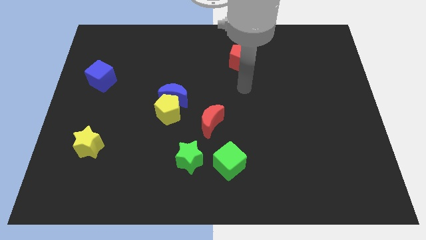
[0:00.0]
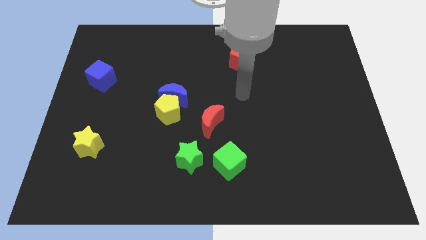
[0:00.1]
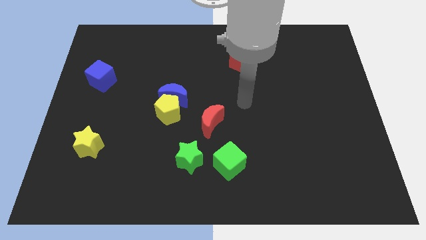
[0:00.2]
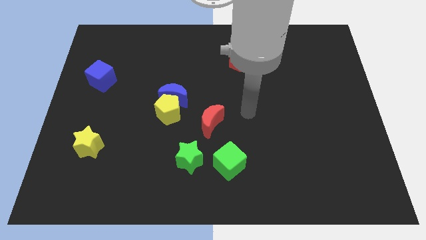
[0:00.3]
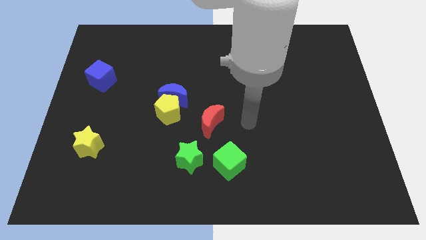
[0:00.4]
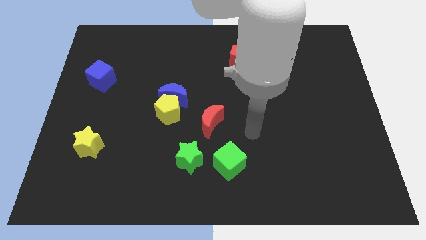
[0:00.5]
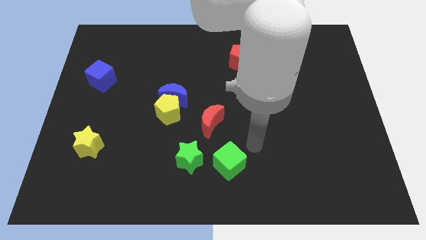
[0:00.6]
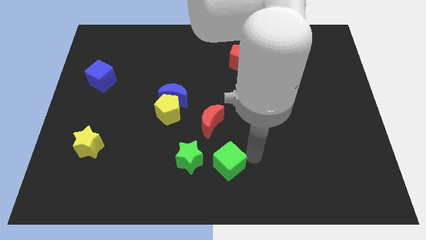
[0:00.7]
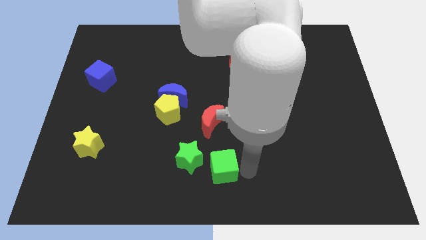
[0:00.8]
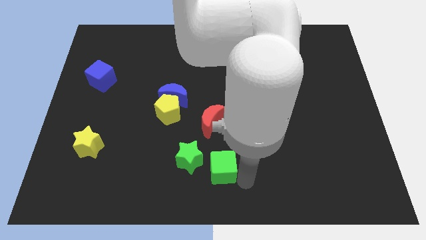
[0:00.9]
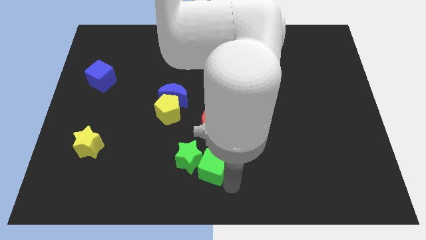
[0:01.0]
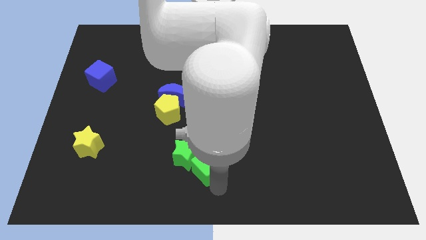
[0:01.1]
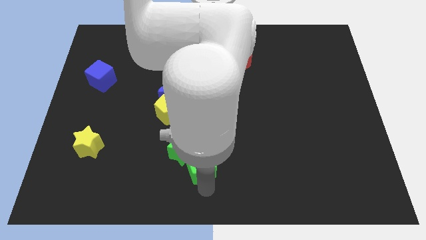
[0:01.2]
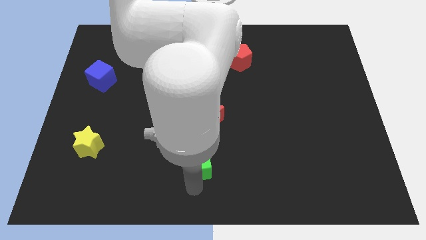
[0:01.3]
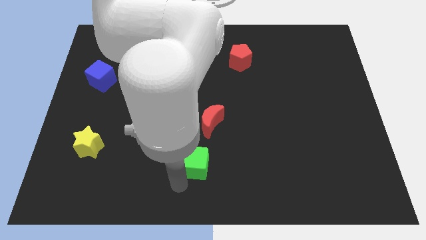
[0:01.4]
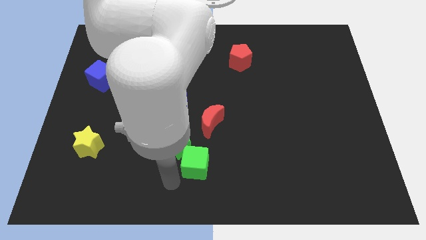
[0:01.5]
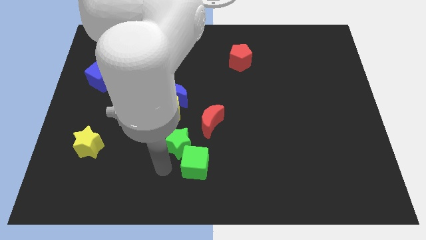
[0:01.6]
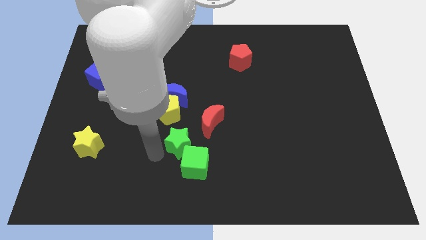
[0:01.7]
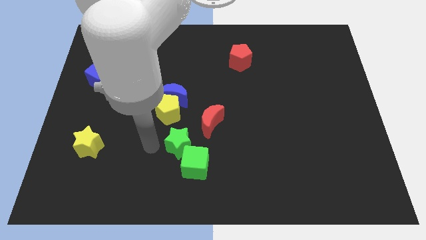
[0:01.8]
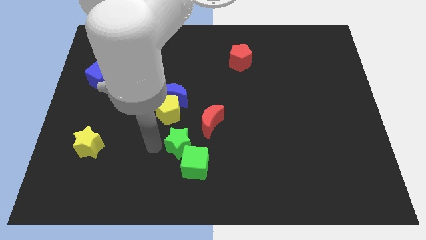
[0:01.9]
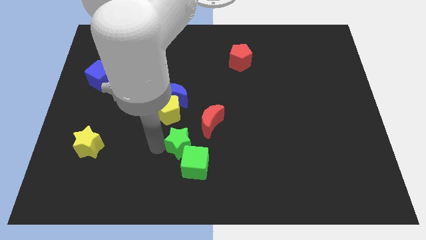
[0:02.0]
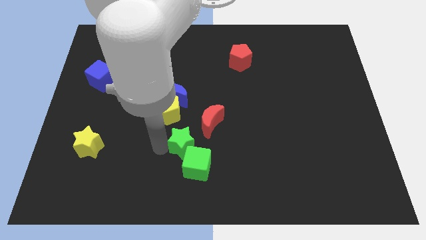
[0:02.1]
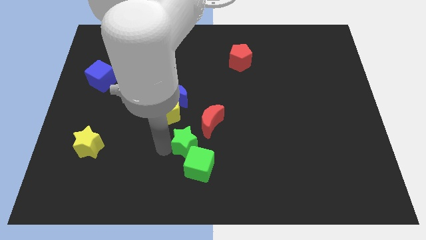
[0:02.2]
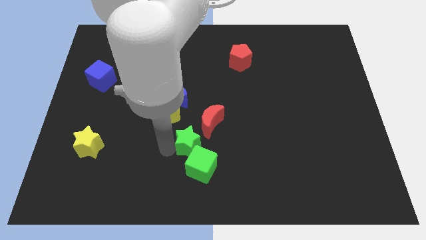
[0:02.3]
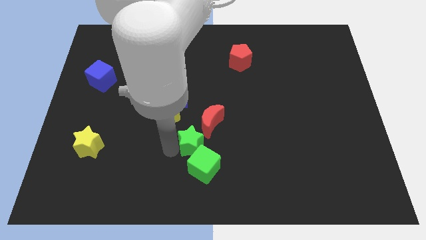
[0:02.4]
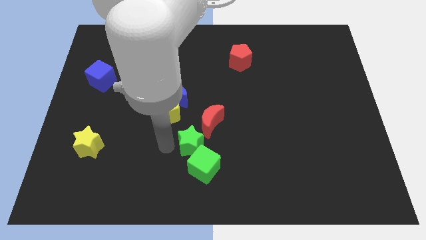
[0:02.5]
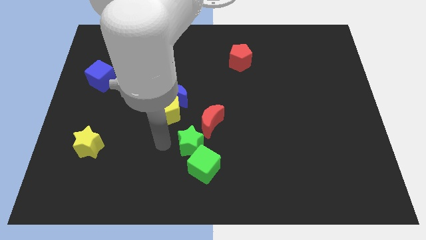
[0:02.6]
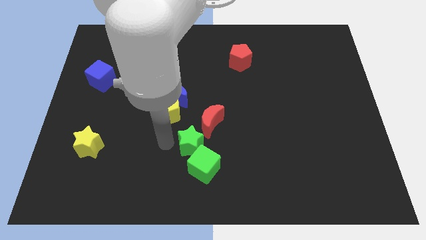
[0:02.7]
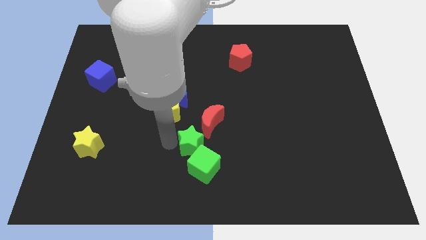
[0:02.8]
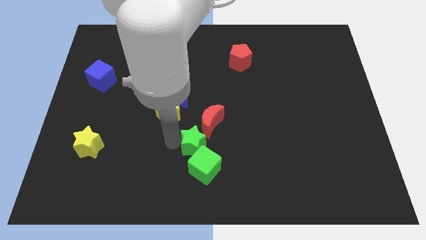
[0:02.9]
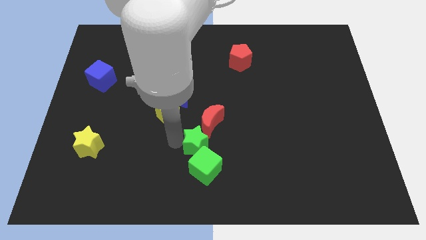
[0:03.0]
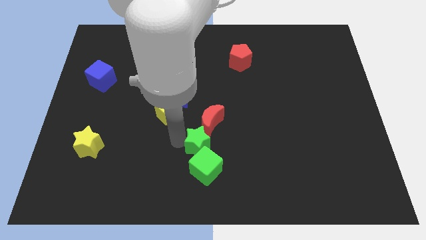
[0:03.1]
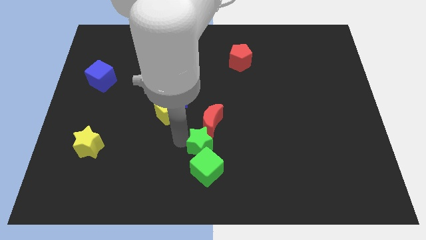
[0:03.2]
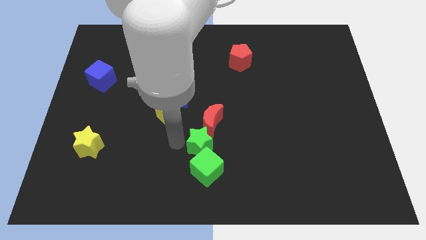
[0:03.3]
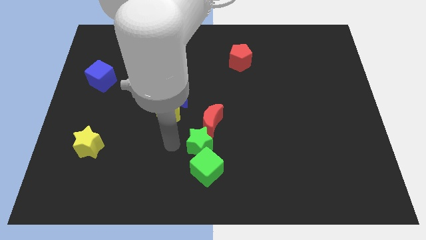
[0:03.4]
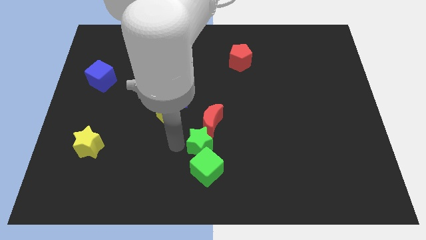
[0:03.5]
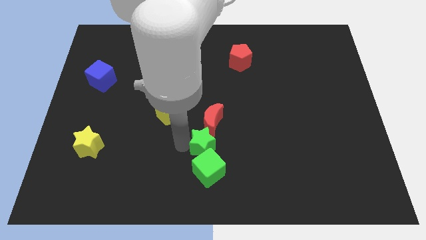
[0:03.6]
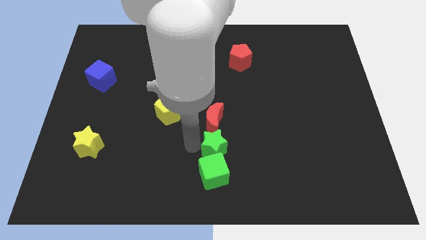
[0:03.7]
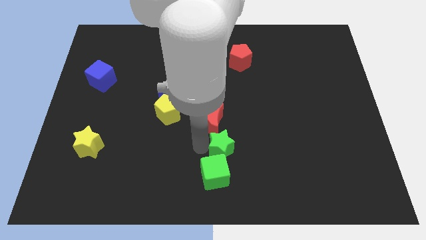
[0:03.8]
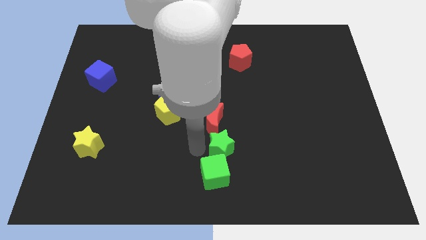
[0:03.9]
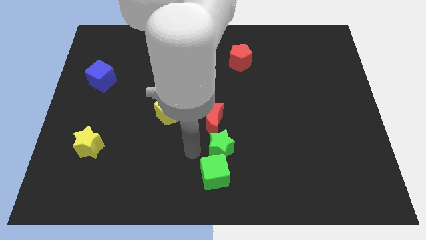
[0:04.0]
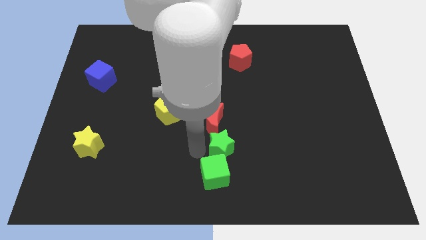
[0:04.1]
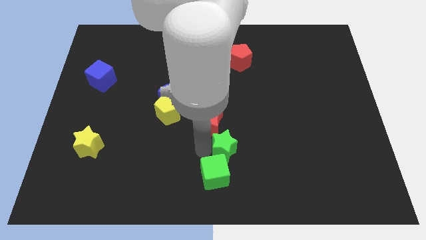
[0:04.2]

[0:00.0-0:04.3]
slide the green star right slightly

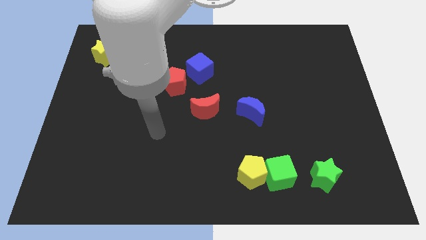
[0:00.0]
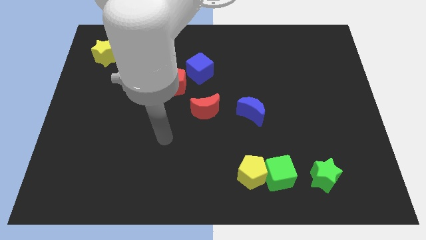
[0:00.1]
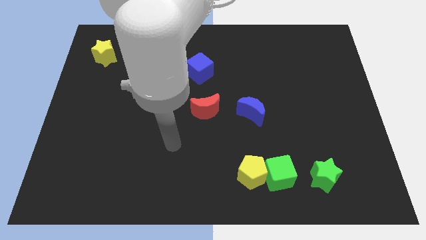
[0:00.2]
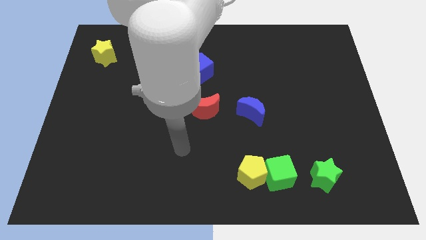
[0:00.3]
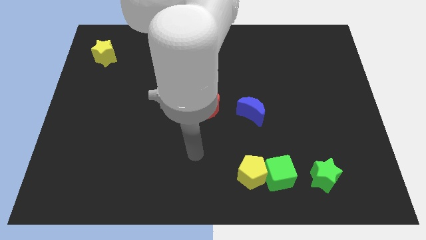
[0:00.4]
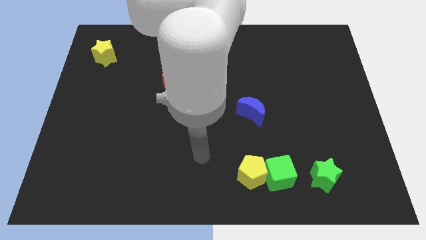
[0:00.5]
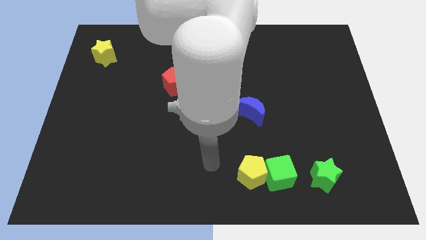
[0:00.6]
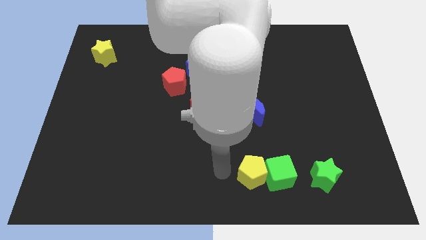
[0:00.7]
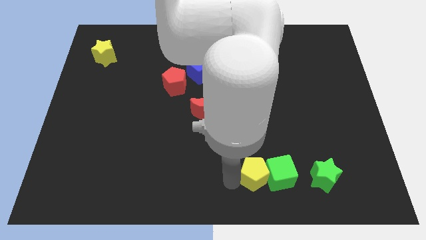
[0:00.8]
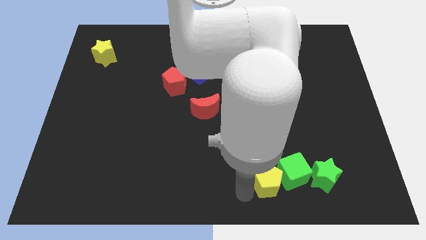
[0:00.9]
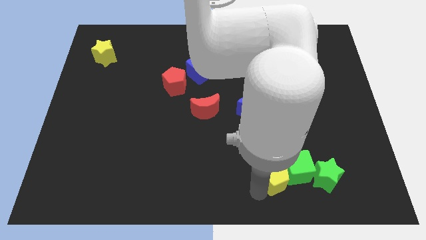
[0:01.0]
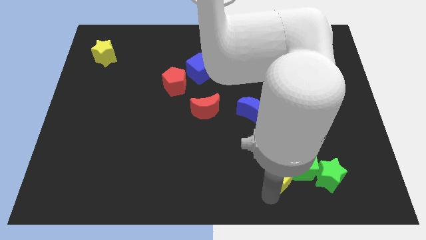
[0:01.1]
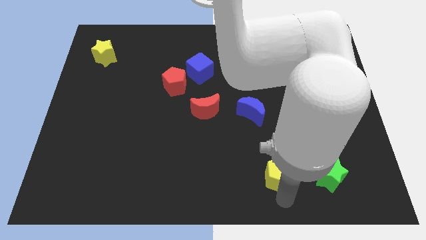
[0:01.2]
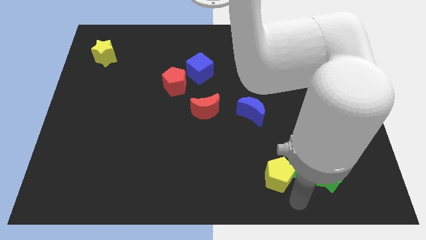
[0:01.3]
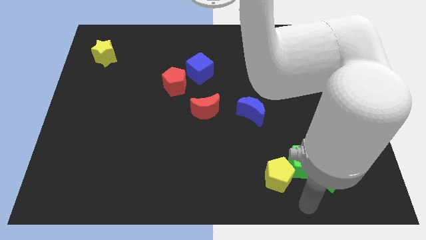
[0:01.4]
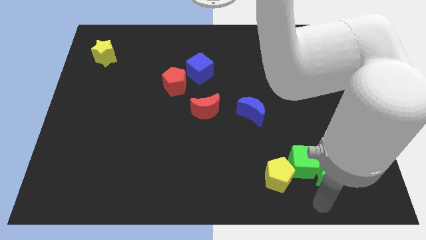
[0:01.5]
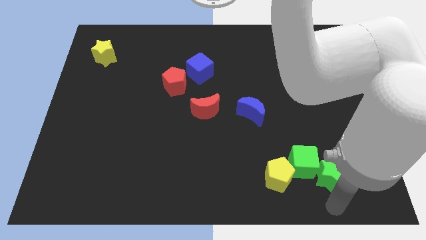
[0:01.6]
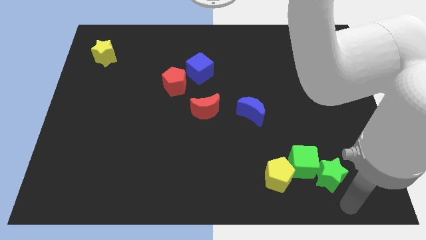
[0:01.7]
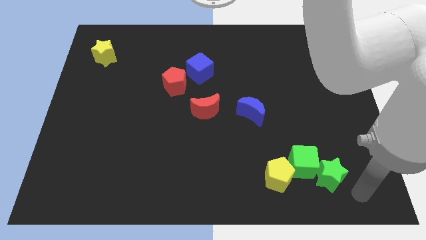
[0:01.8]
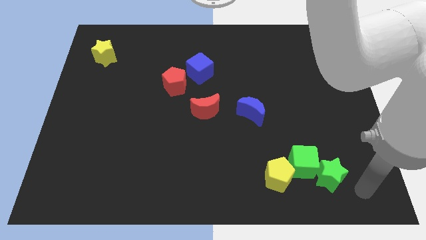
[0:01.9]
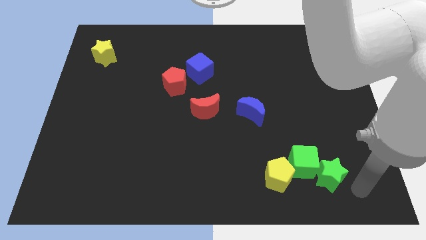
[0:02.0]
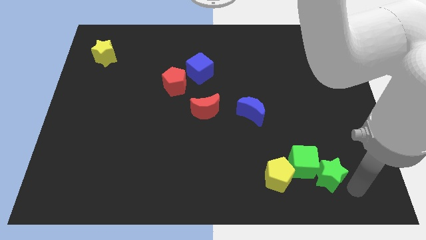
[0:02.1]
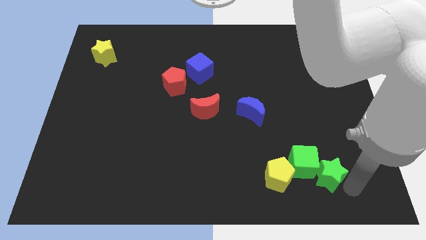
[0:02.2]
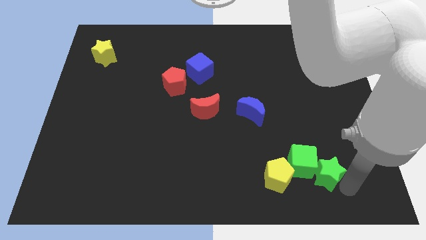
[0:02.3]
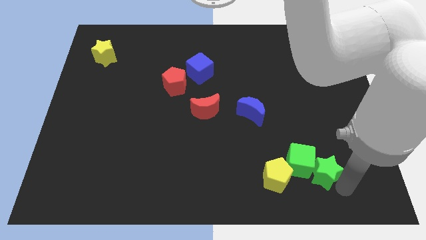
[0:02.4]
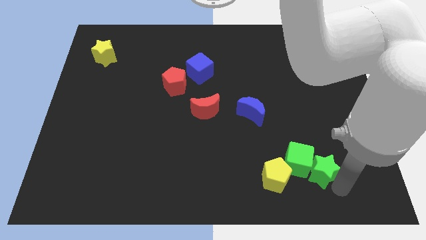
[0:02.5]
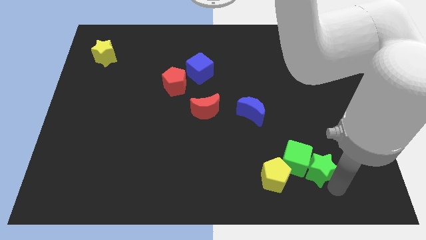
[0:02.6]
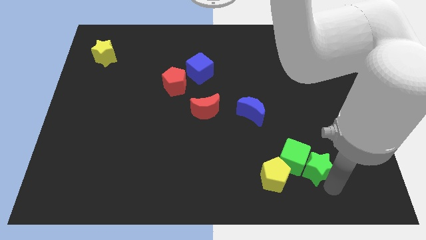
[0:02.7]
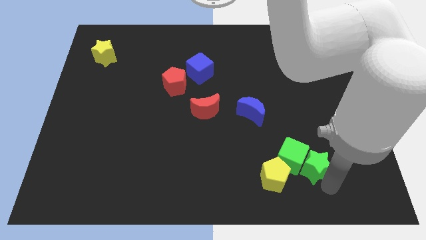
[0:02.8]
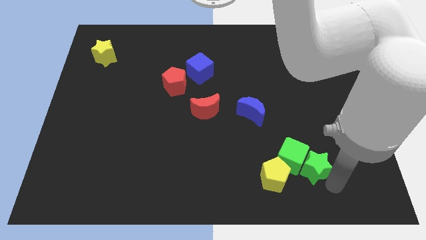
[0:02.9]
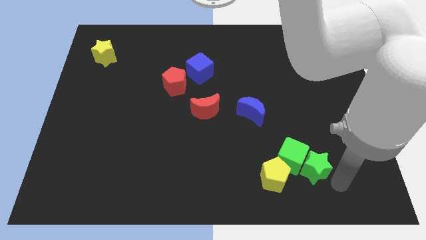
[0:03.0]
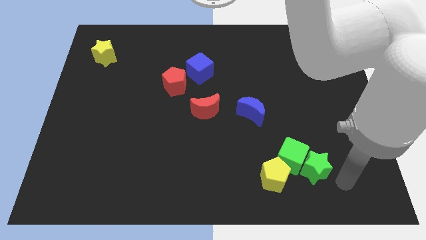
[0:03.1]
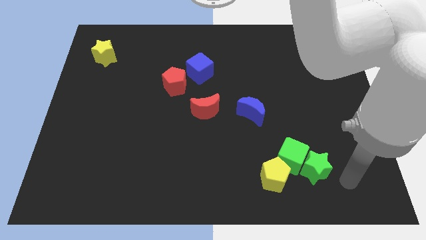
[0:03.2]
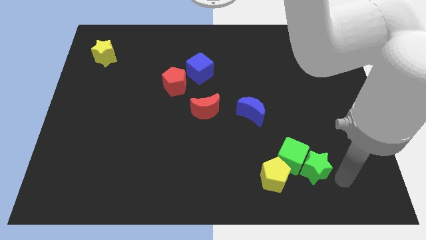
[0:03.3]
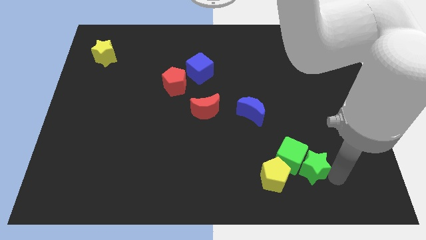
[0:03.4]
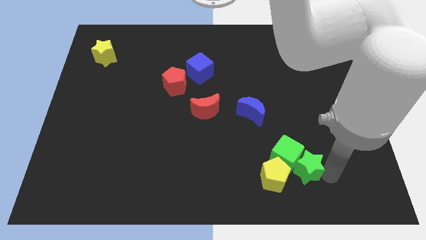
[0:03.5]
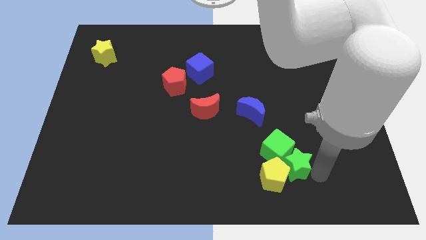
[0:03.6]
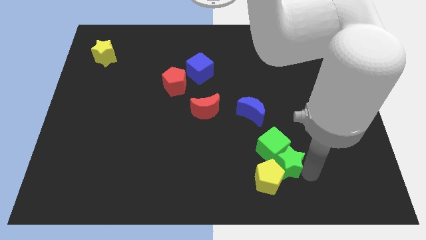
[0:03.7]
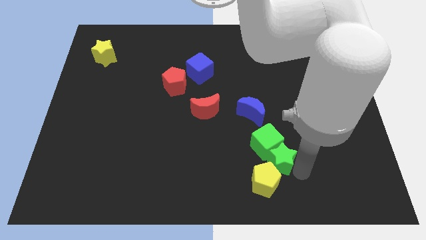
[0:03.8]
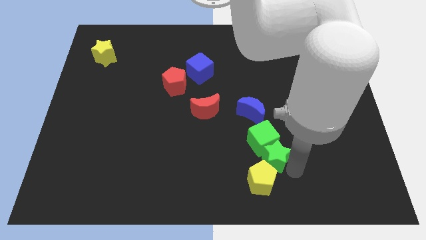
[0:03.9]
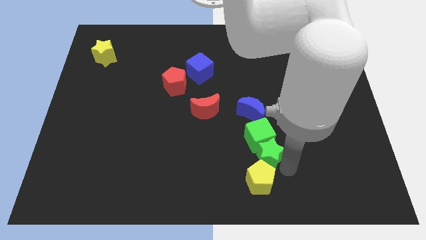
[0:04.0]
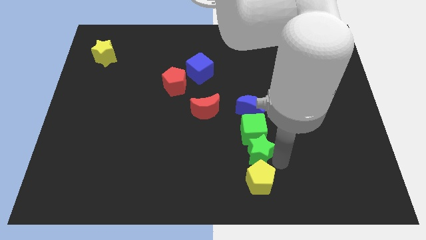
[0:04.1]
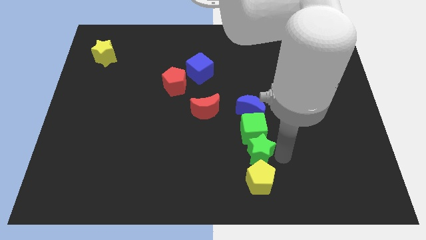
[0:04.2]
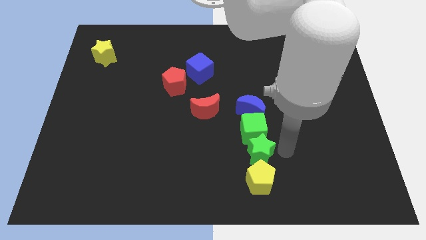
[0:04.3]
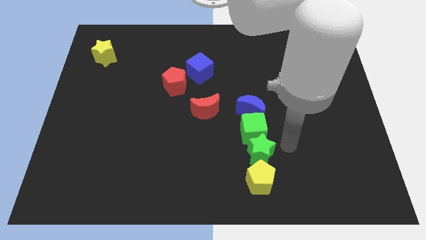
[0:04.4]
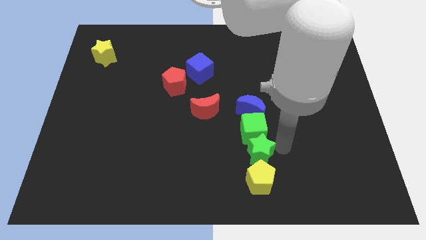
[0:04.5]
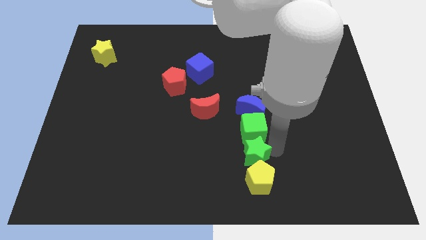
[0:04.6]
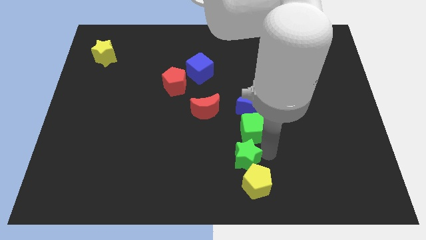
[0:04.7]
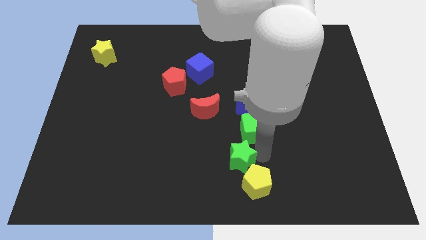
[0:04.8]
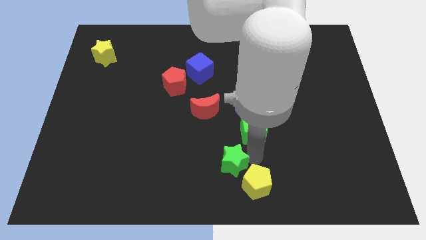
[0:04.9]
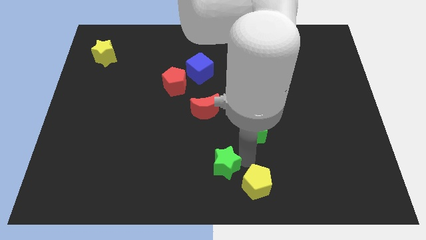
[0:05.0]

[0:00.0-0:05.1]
move the green star to the left
